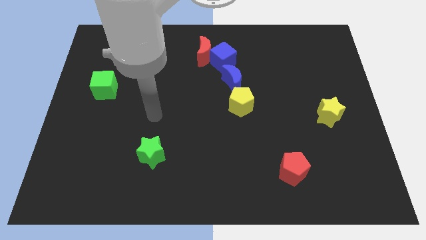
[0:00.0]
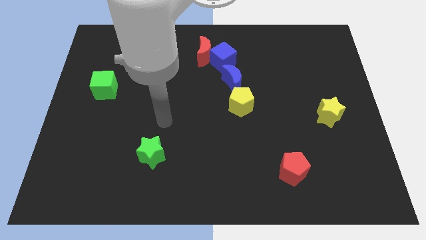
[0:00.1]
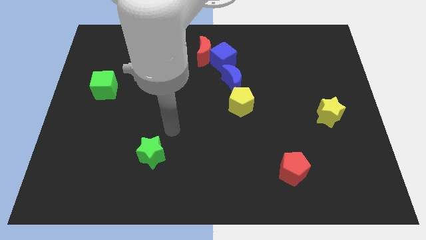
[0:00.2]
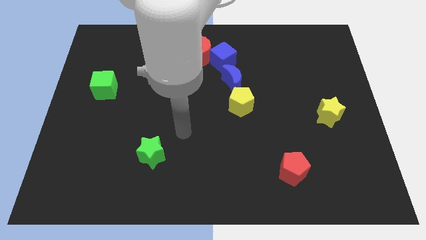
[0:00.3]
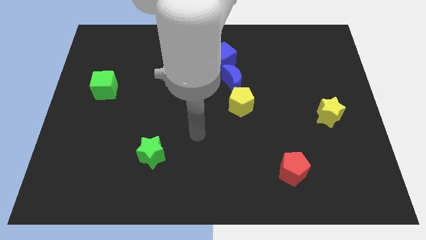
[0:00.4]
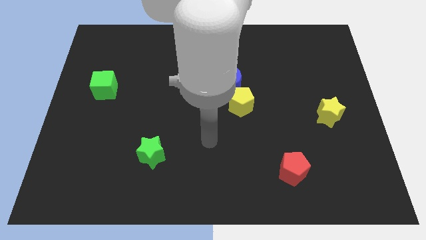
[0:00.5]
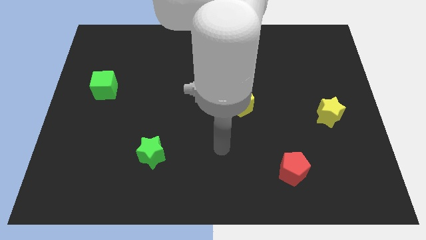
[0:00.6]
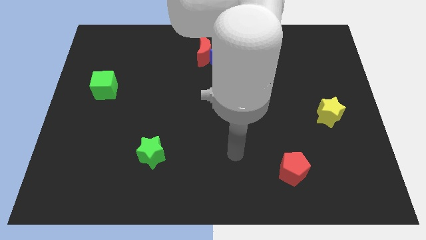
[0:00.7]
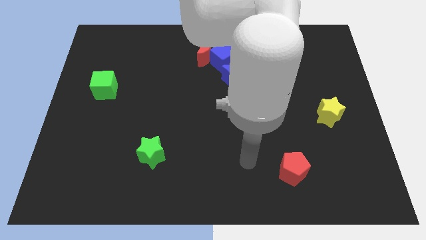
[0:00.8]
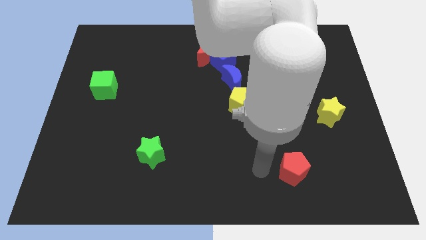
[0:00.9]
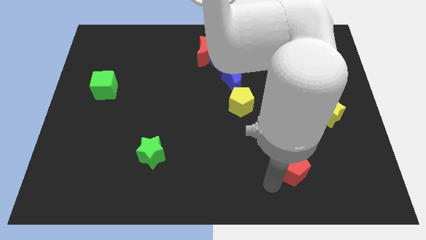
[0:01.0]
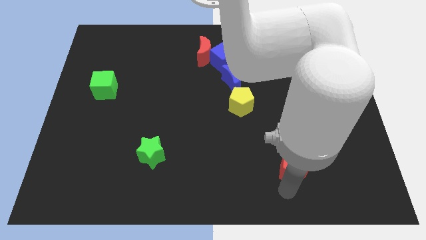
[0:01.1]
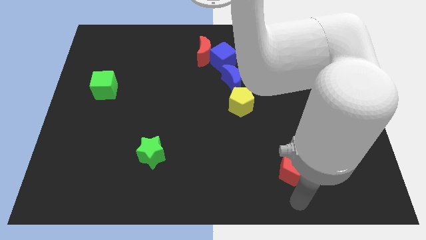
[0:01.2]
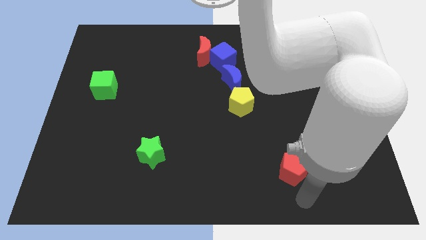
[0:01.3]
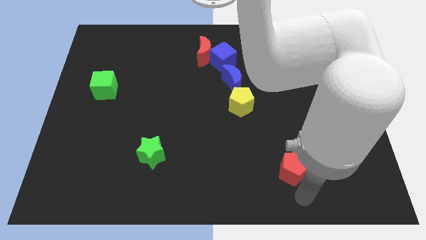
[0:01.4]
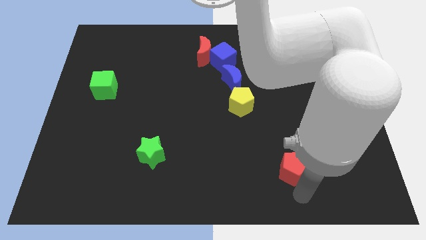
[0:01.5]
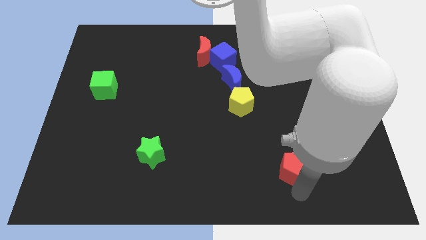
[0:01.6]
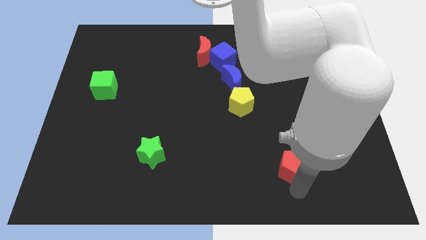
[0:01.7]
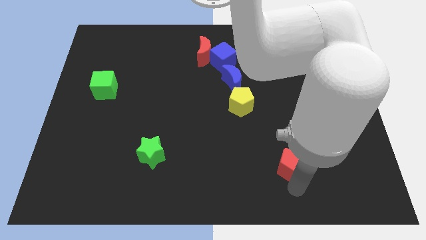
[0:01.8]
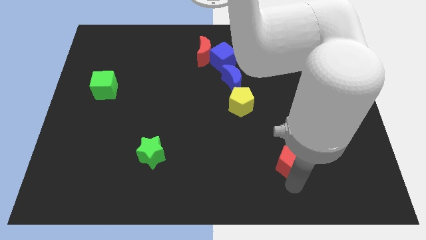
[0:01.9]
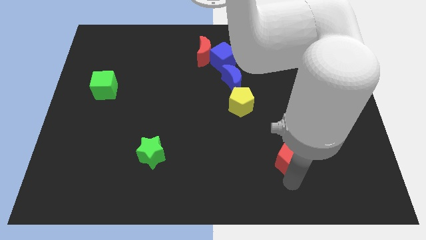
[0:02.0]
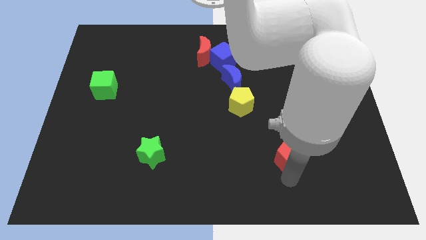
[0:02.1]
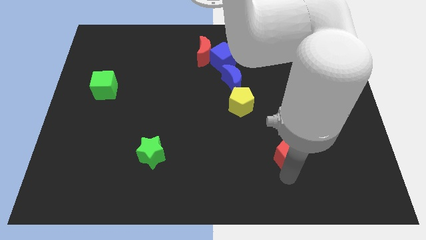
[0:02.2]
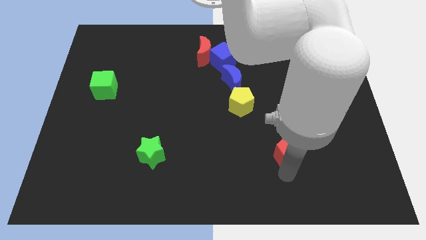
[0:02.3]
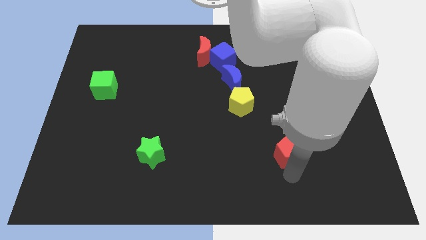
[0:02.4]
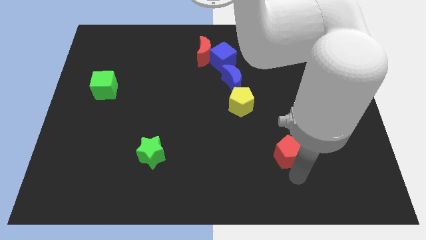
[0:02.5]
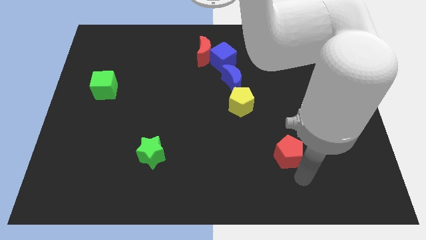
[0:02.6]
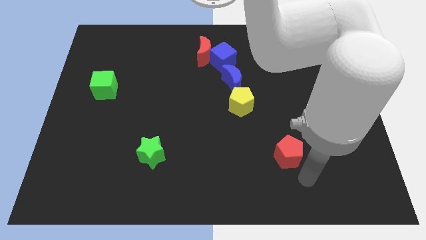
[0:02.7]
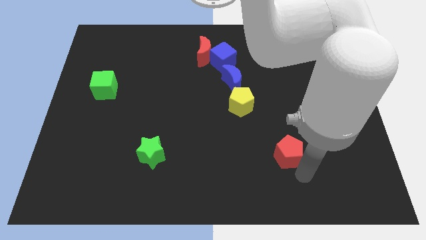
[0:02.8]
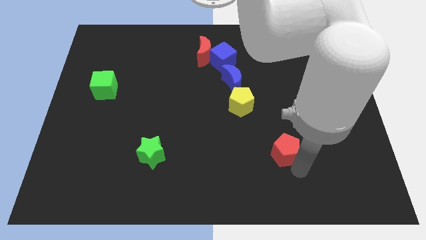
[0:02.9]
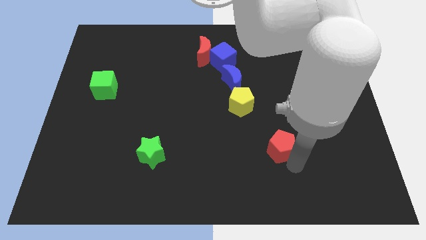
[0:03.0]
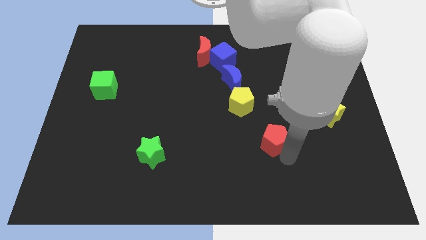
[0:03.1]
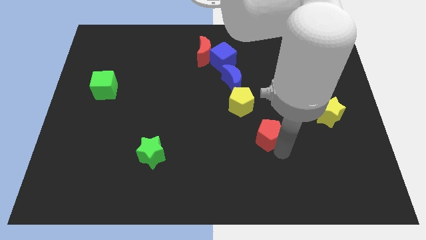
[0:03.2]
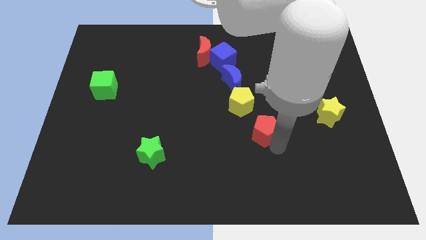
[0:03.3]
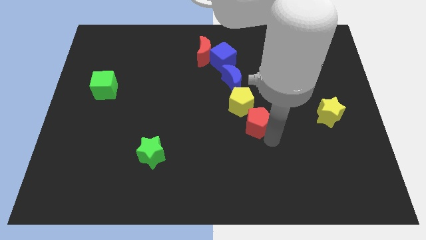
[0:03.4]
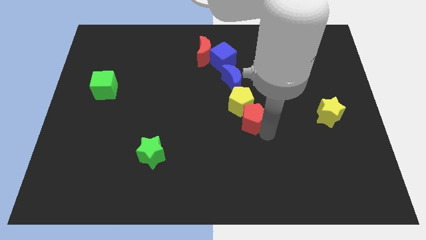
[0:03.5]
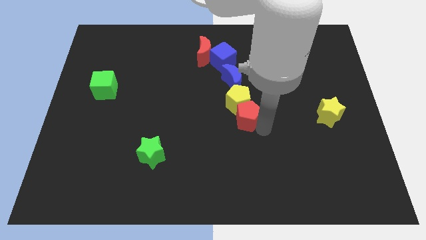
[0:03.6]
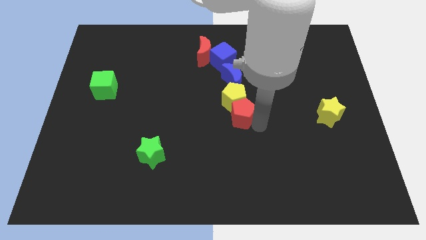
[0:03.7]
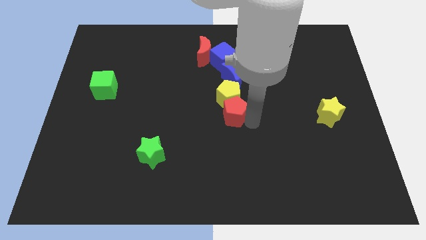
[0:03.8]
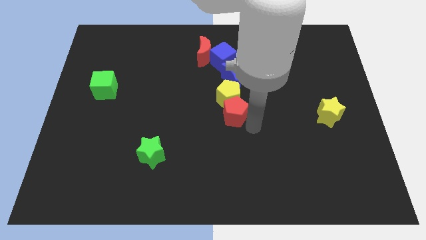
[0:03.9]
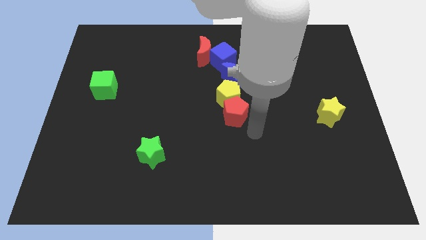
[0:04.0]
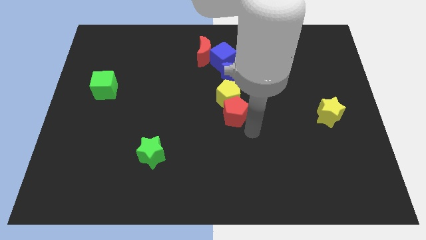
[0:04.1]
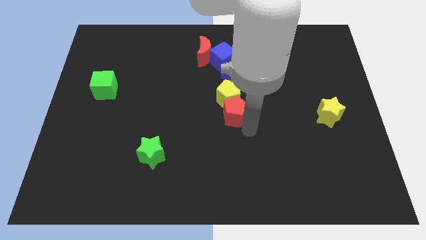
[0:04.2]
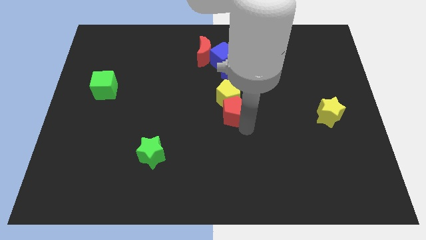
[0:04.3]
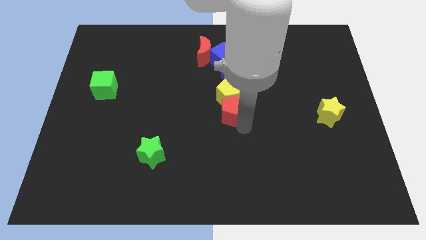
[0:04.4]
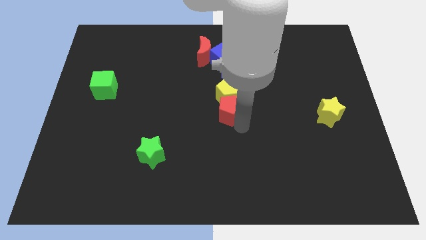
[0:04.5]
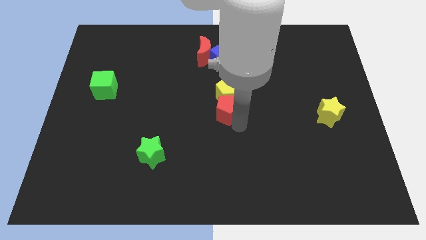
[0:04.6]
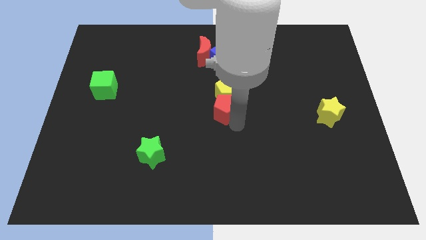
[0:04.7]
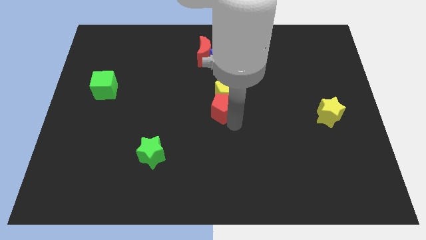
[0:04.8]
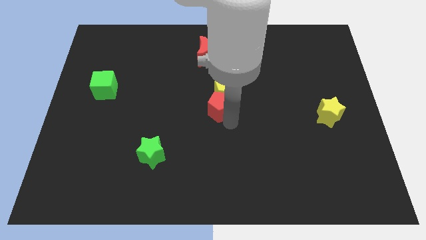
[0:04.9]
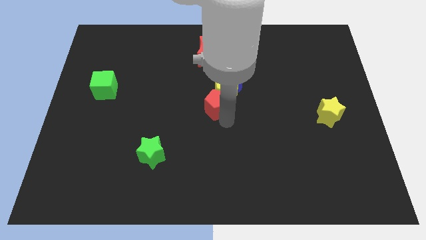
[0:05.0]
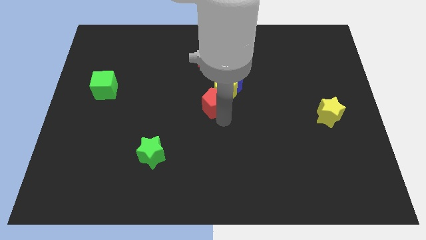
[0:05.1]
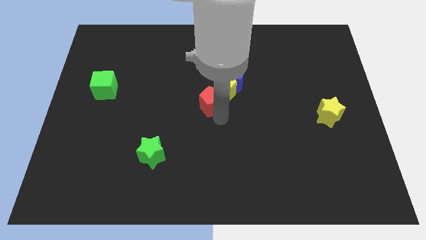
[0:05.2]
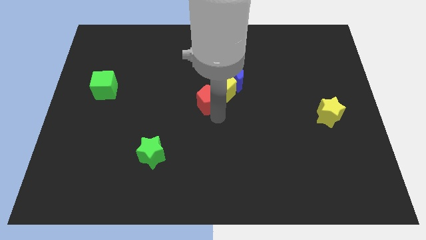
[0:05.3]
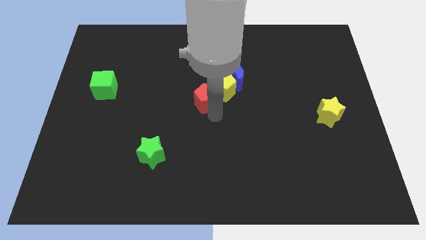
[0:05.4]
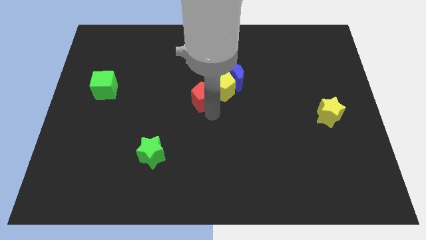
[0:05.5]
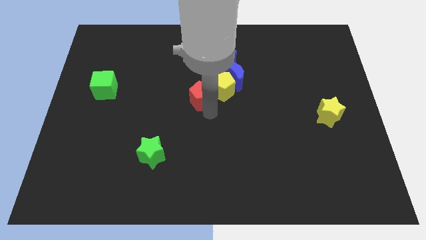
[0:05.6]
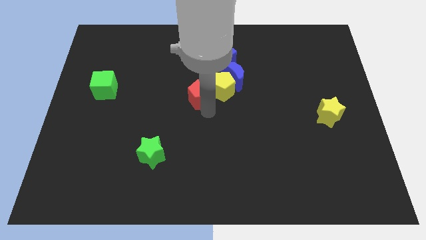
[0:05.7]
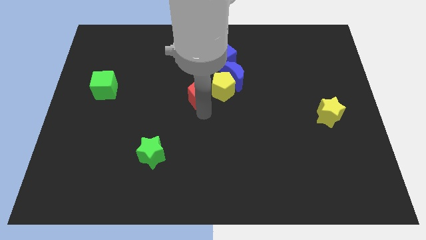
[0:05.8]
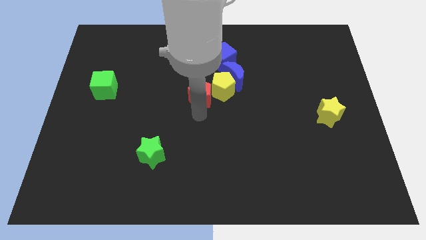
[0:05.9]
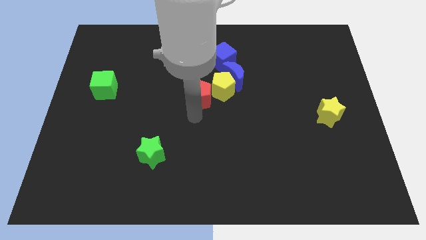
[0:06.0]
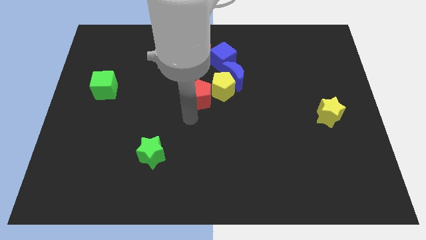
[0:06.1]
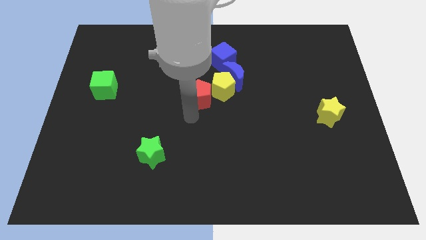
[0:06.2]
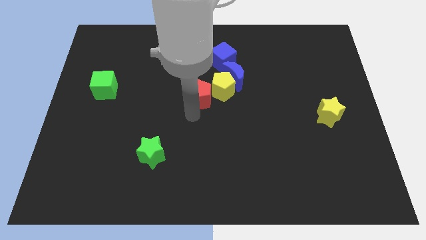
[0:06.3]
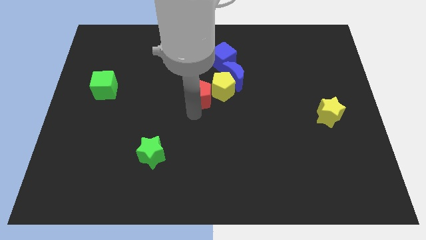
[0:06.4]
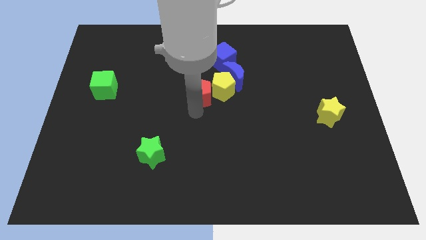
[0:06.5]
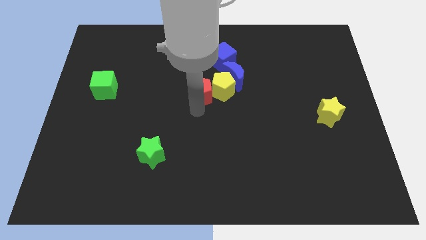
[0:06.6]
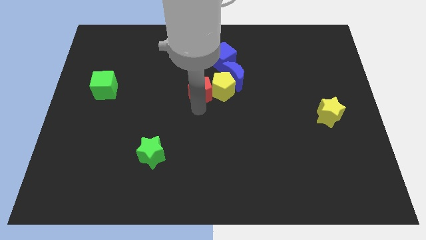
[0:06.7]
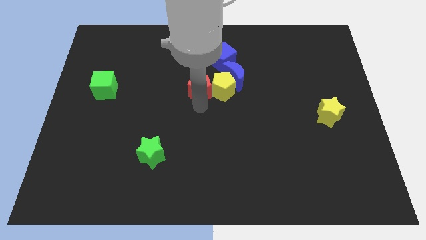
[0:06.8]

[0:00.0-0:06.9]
put the red pentagon to the bottom left side of the blue cube
